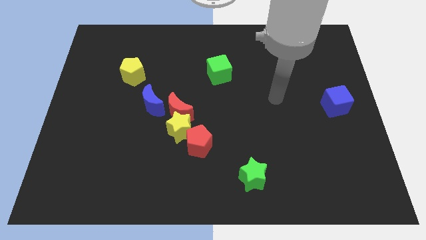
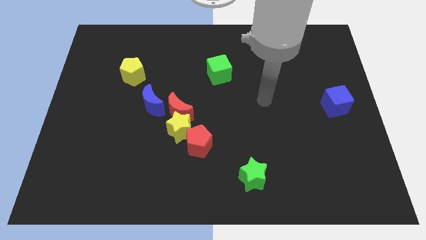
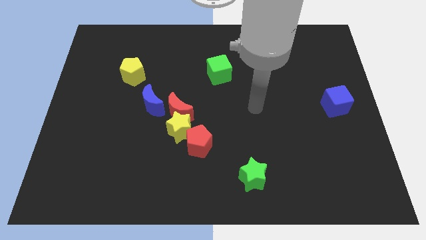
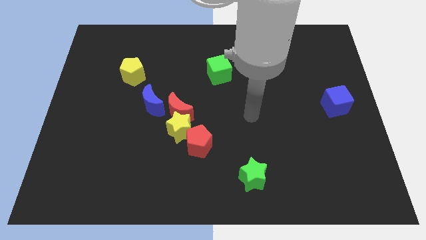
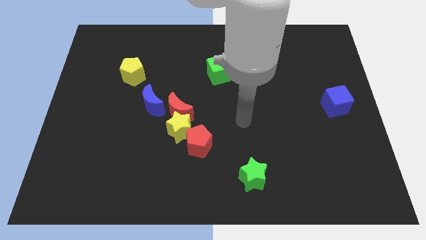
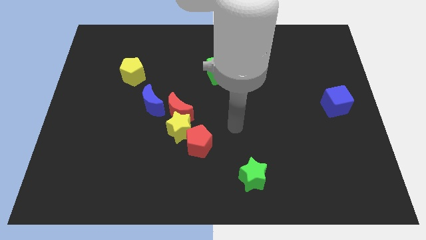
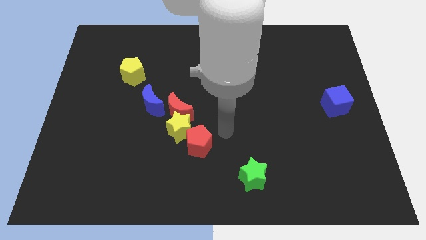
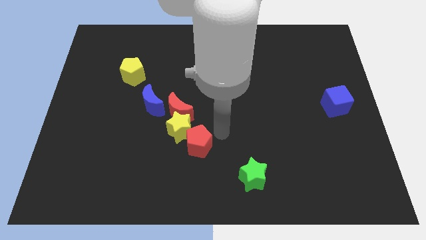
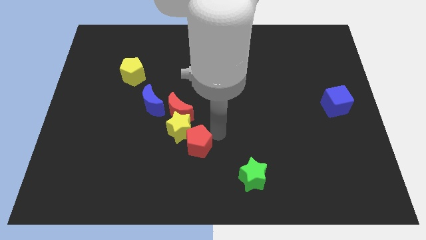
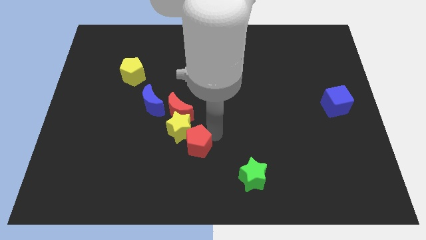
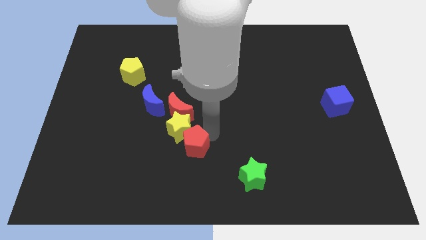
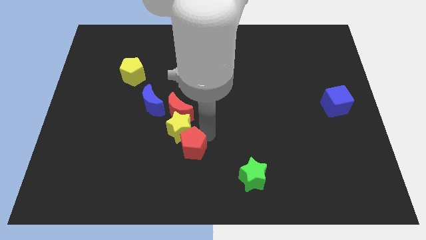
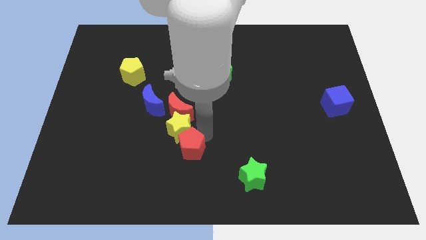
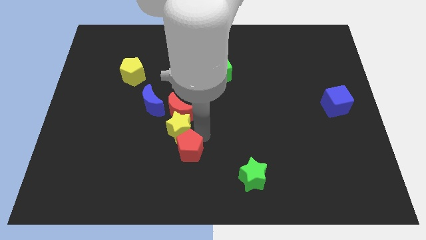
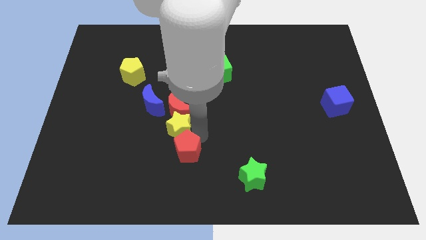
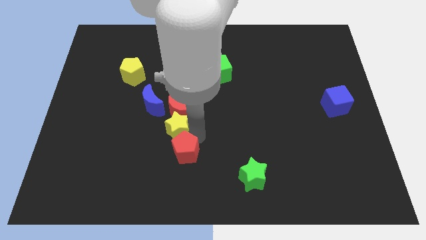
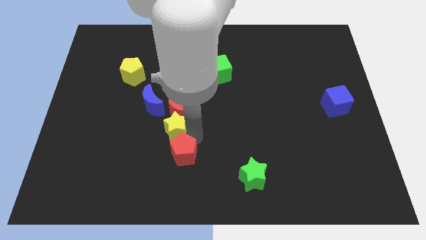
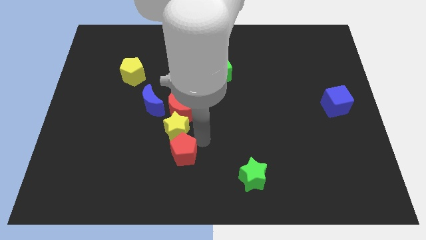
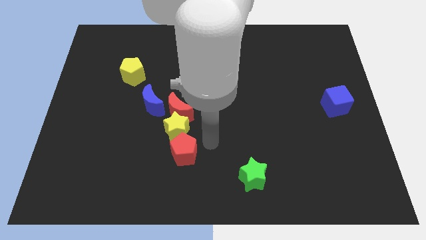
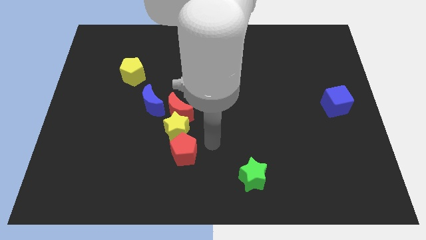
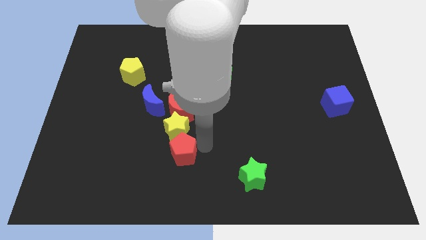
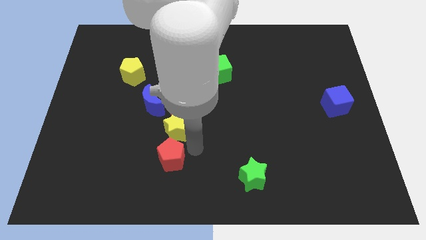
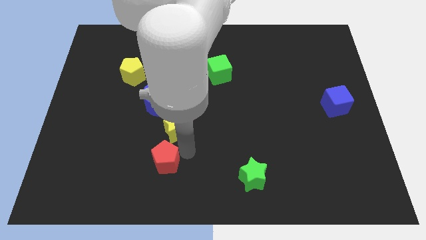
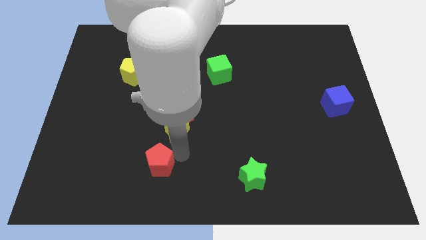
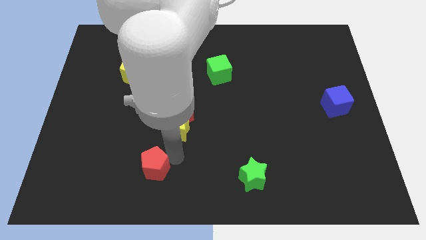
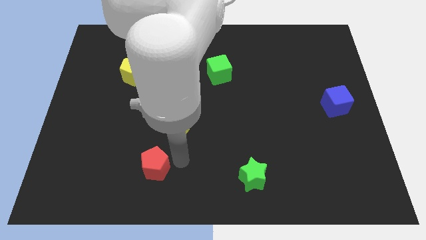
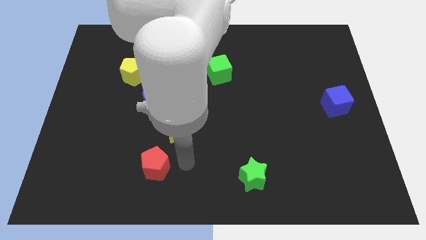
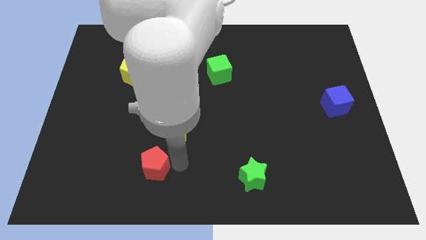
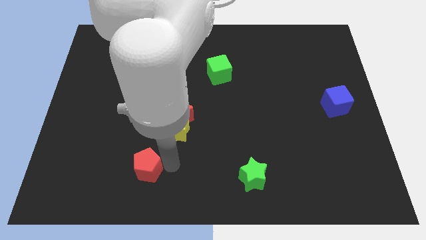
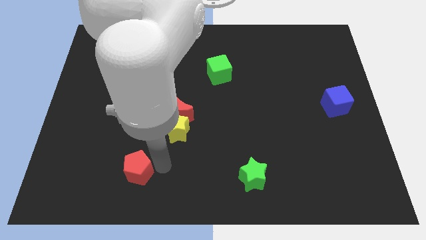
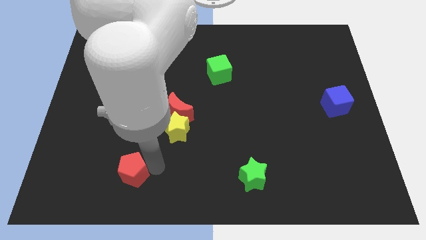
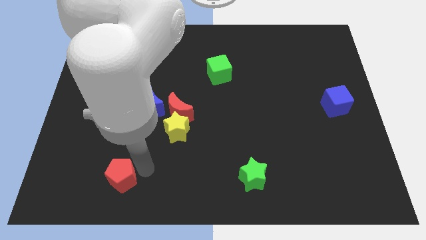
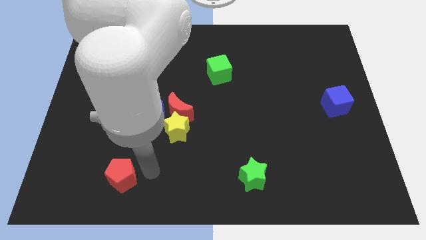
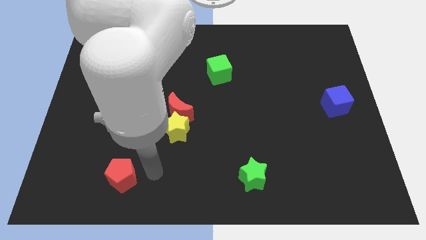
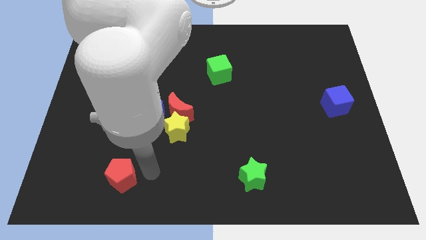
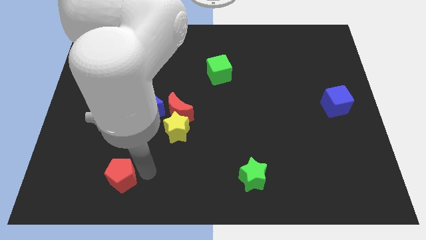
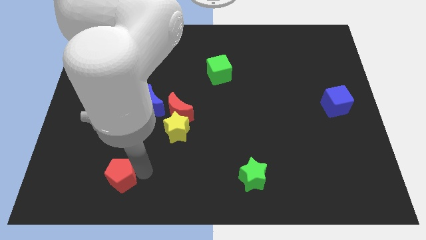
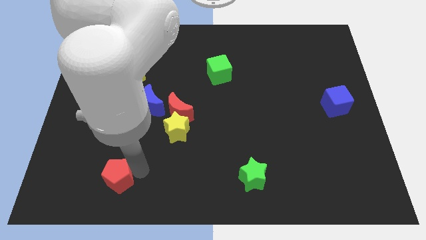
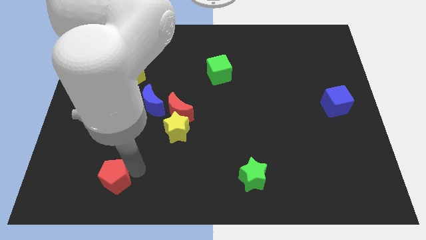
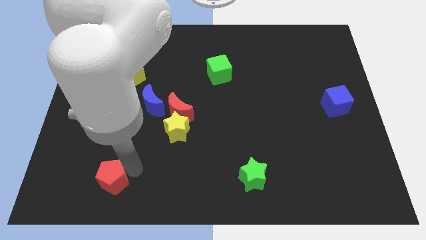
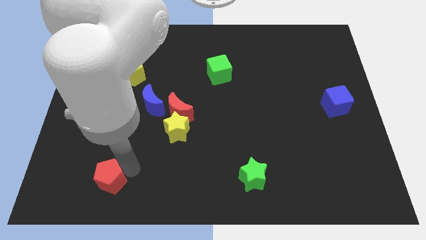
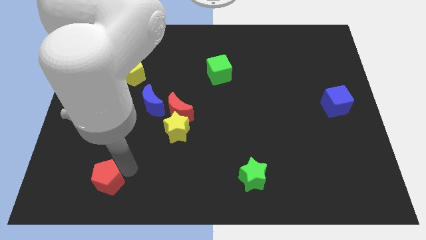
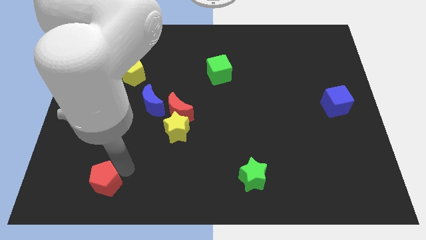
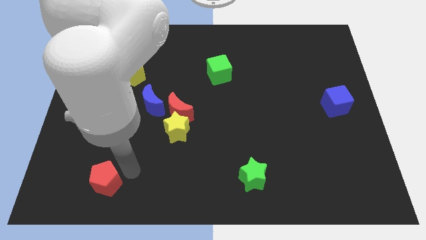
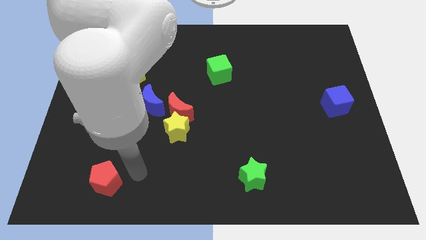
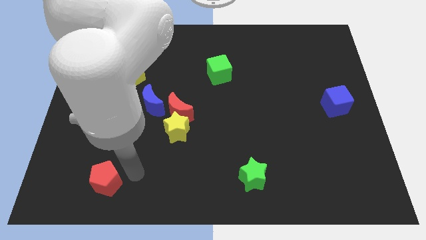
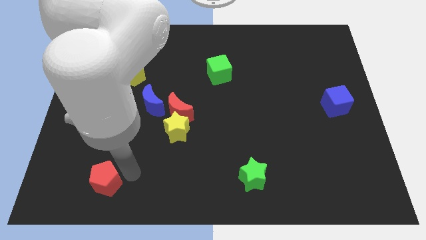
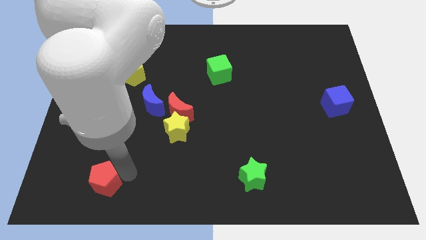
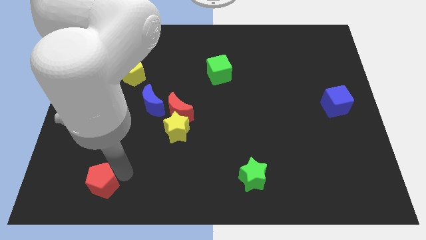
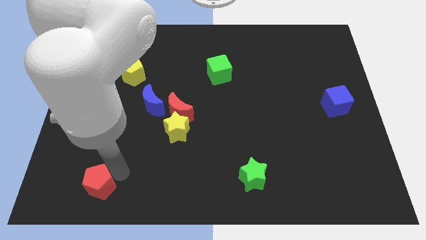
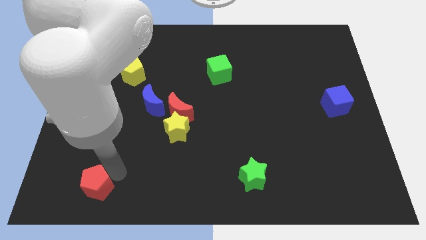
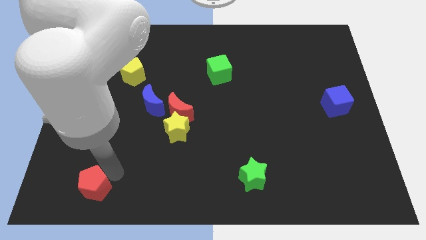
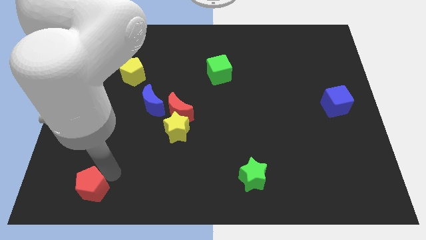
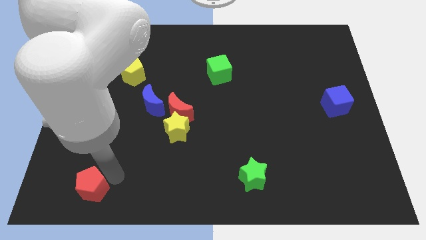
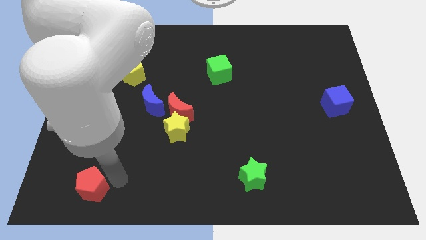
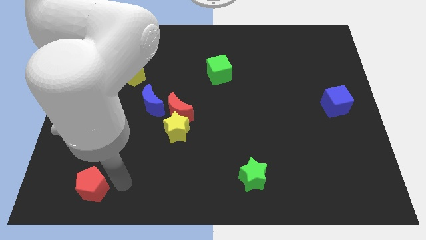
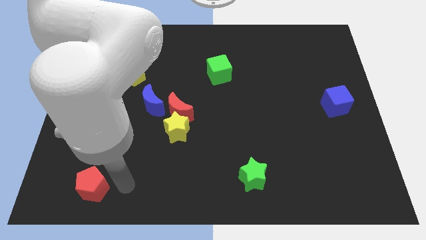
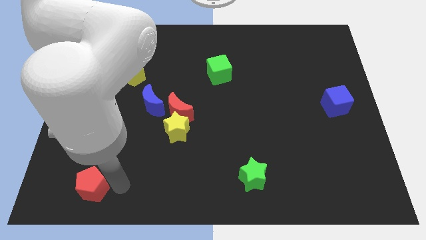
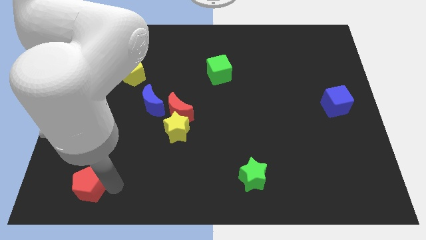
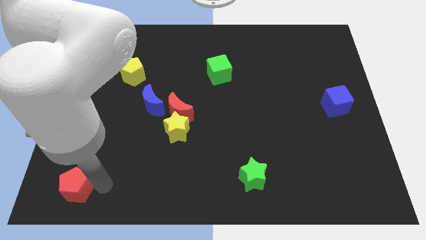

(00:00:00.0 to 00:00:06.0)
put the red pentagon to the bottom left
